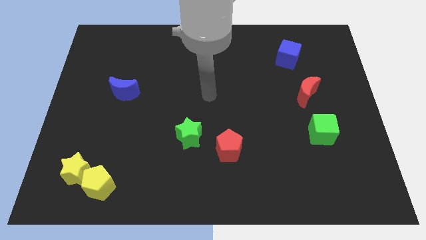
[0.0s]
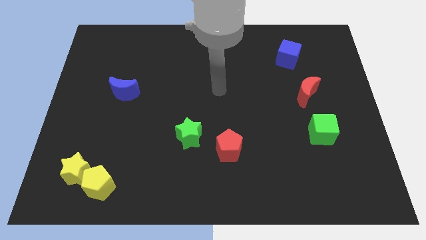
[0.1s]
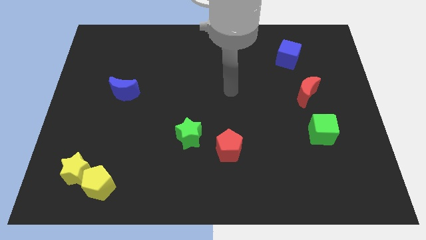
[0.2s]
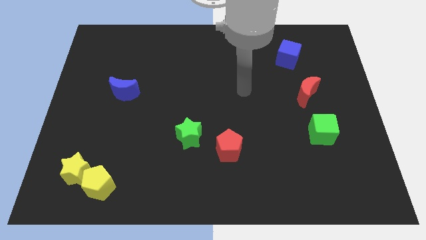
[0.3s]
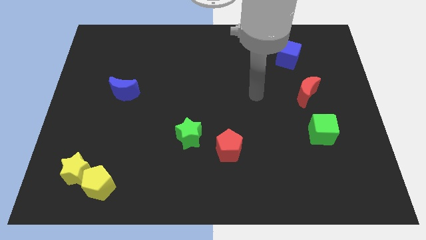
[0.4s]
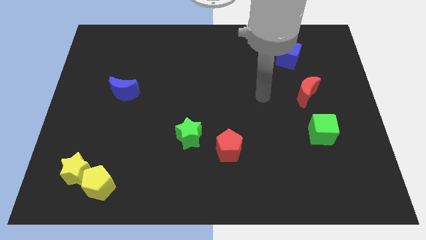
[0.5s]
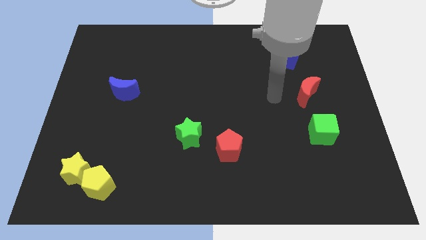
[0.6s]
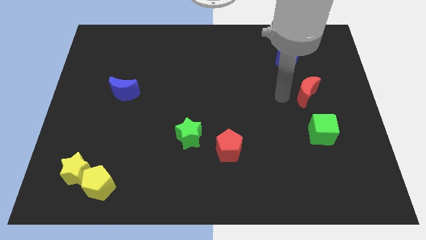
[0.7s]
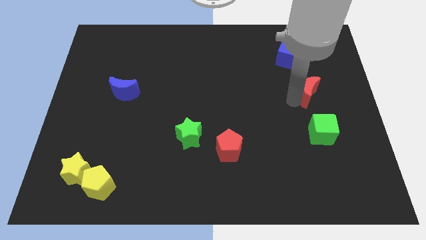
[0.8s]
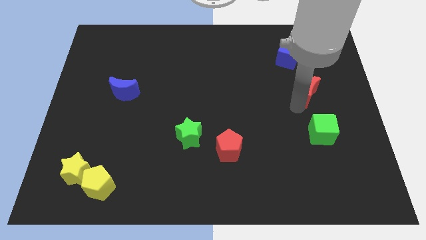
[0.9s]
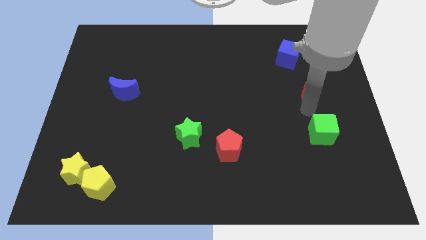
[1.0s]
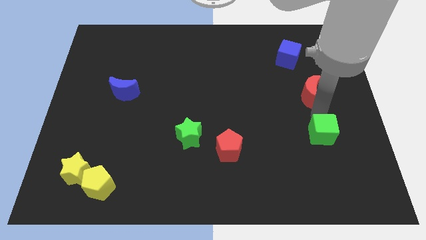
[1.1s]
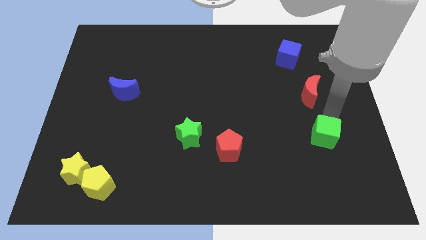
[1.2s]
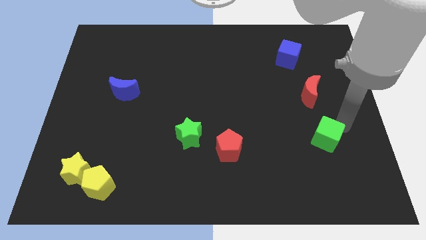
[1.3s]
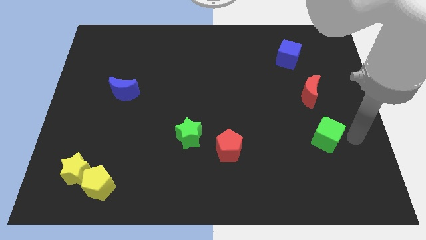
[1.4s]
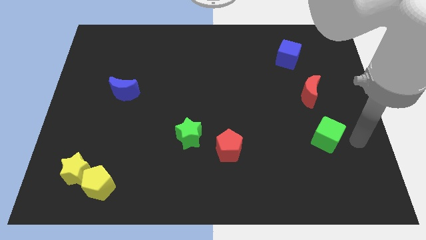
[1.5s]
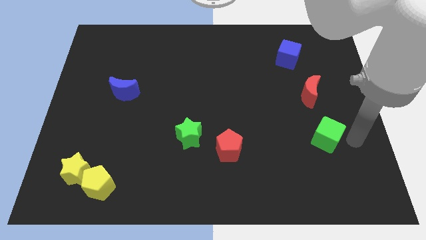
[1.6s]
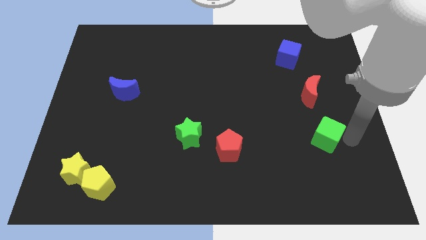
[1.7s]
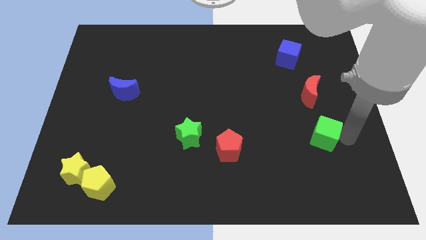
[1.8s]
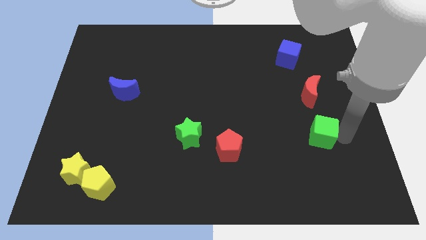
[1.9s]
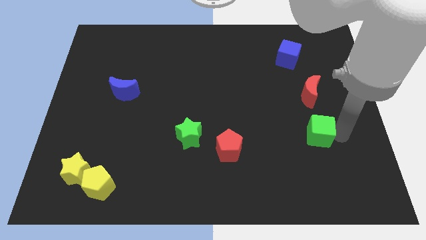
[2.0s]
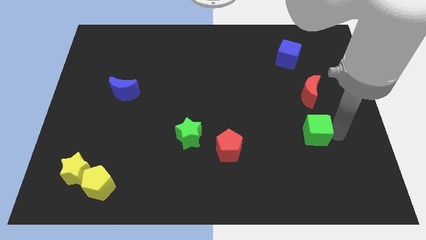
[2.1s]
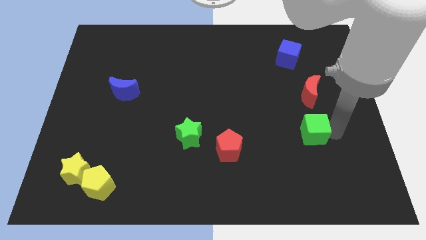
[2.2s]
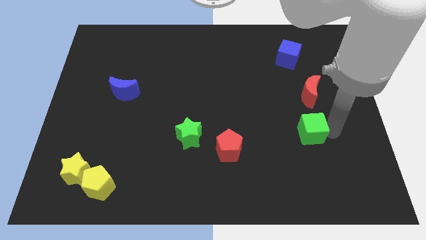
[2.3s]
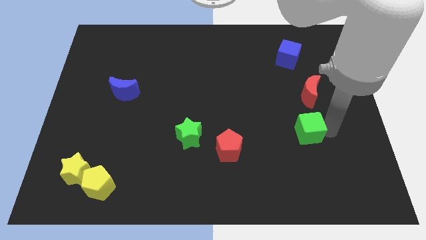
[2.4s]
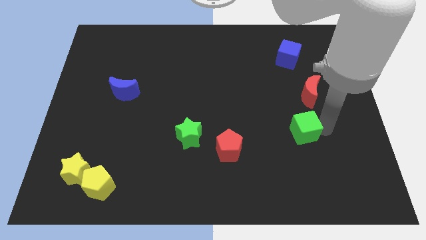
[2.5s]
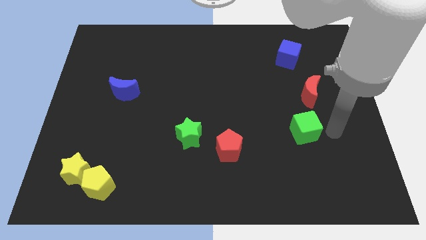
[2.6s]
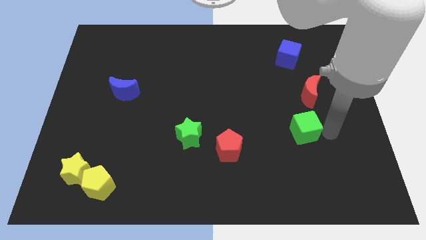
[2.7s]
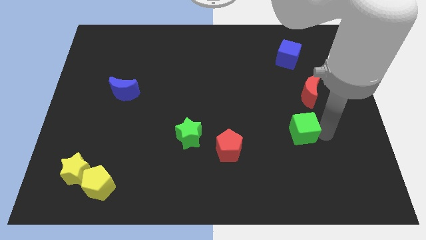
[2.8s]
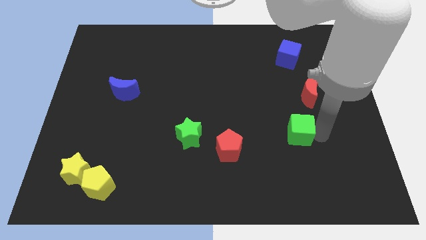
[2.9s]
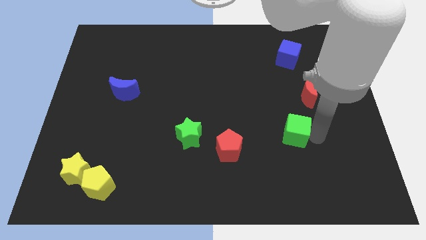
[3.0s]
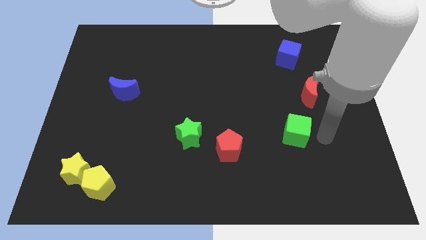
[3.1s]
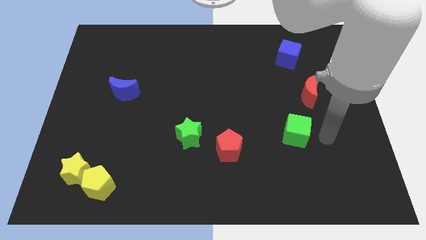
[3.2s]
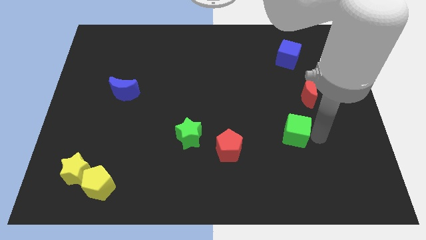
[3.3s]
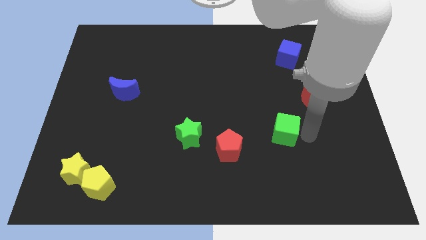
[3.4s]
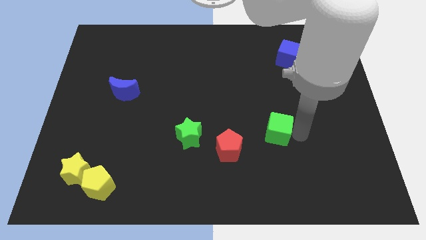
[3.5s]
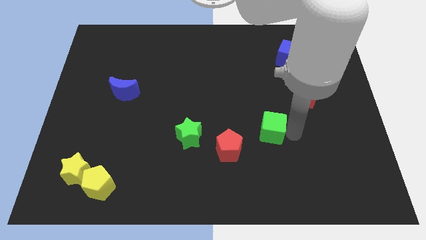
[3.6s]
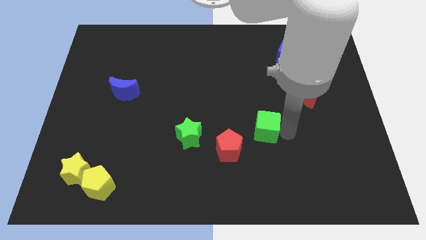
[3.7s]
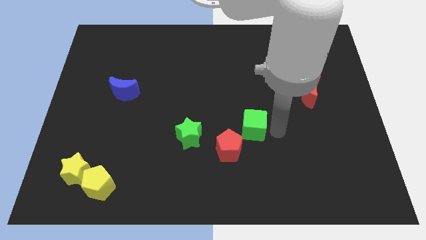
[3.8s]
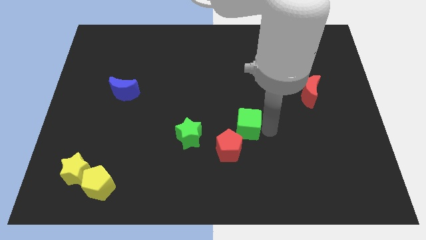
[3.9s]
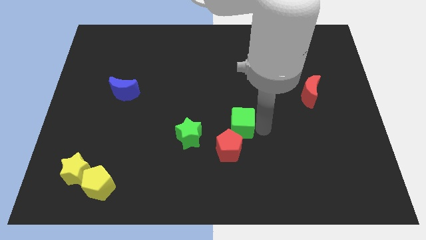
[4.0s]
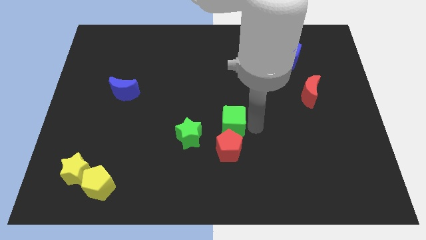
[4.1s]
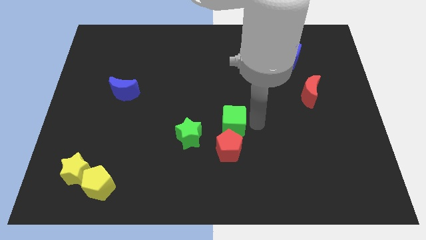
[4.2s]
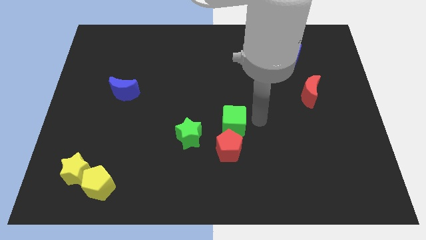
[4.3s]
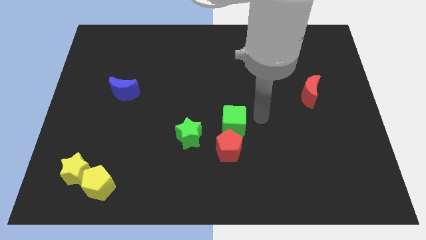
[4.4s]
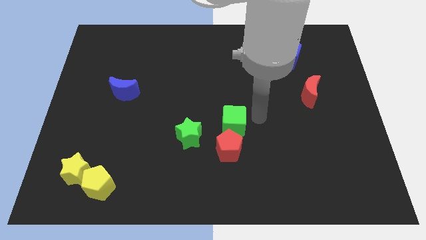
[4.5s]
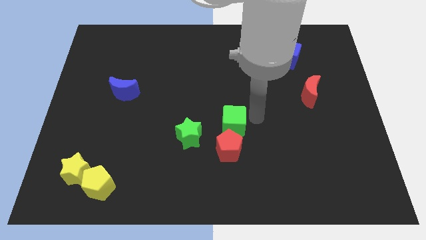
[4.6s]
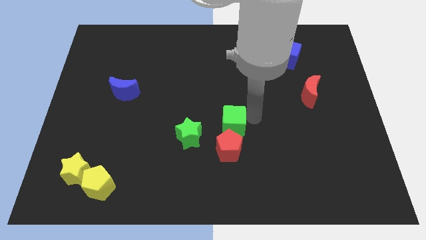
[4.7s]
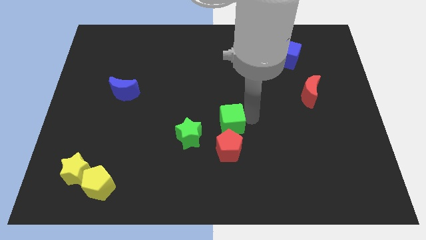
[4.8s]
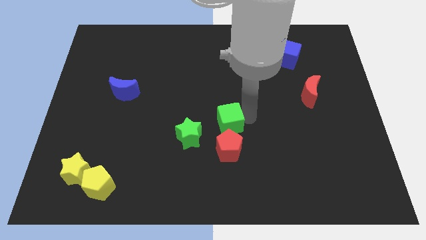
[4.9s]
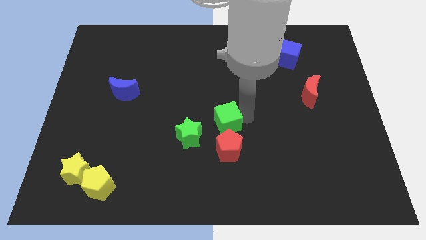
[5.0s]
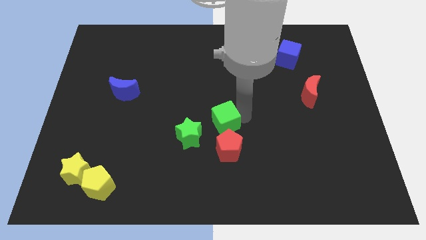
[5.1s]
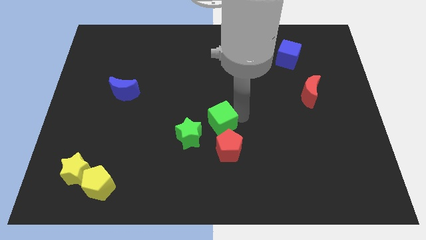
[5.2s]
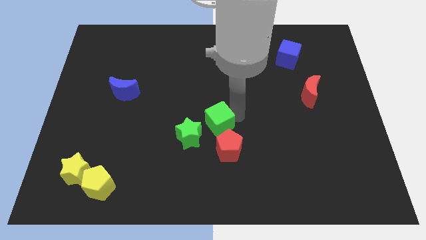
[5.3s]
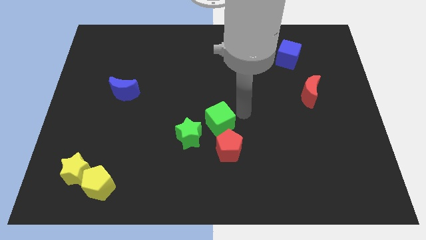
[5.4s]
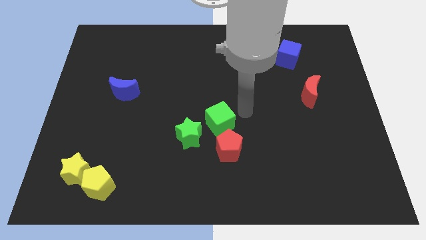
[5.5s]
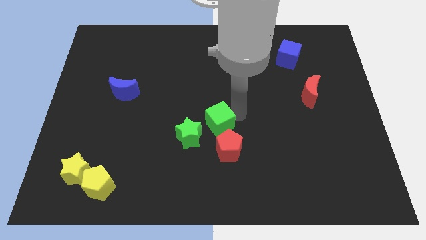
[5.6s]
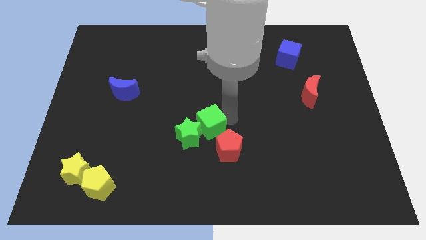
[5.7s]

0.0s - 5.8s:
move the green cube towards the green star

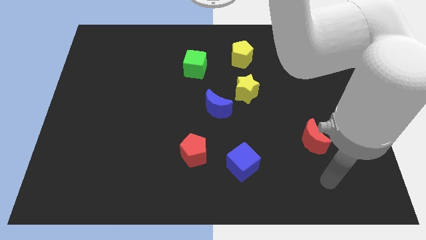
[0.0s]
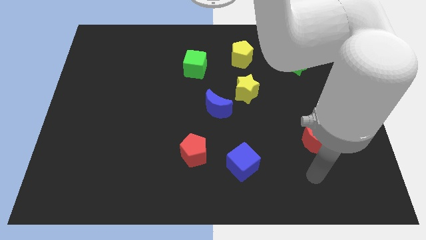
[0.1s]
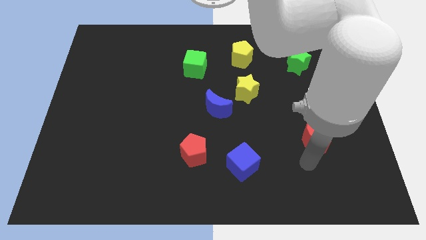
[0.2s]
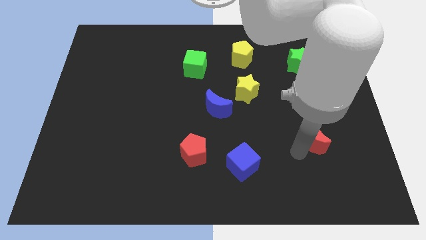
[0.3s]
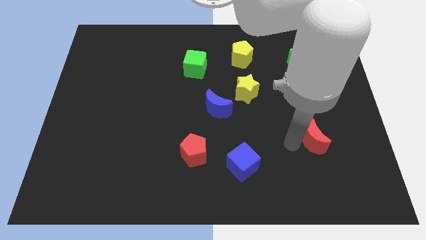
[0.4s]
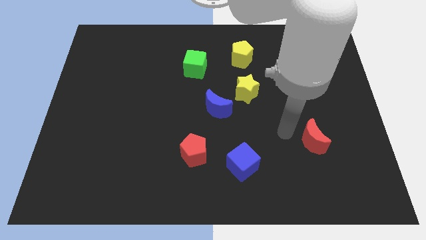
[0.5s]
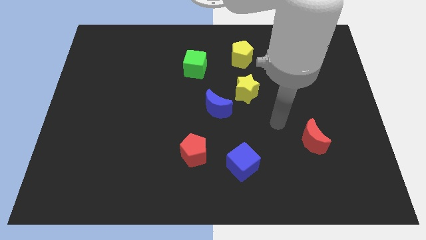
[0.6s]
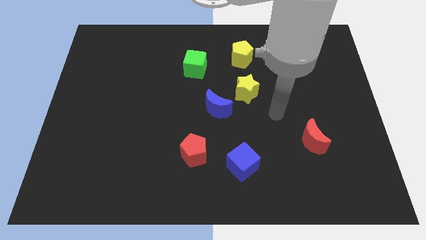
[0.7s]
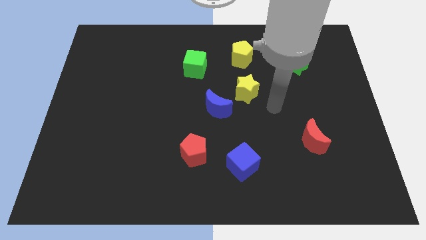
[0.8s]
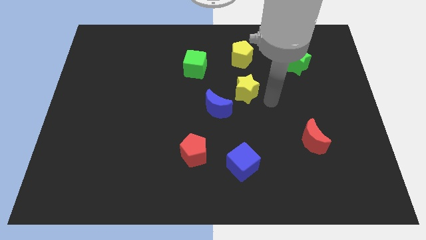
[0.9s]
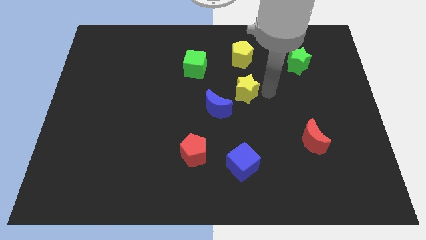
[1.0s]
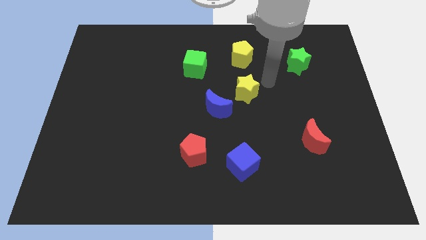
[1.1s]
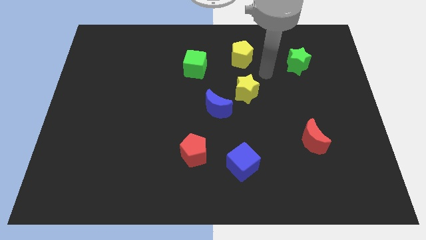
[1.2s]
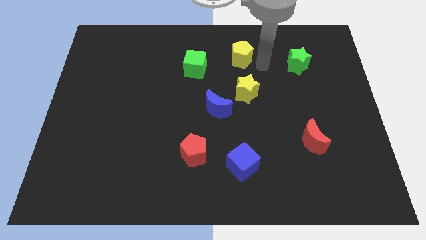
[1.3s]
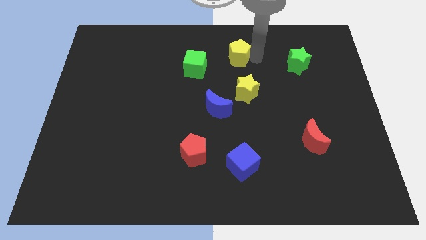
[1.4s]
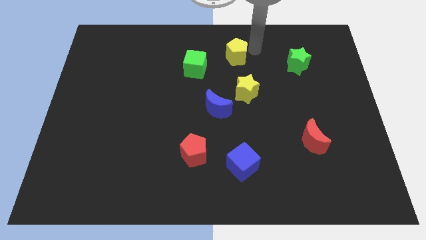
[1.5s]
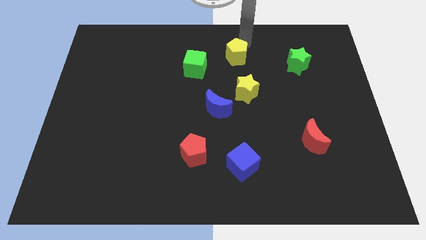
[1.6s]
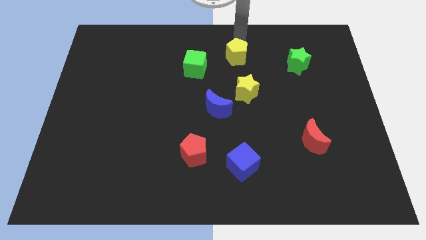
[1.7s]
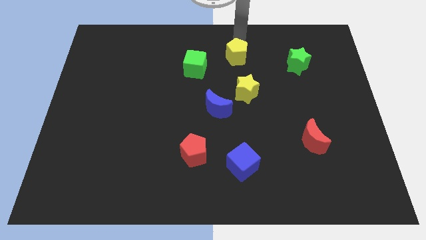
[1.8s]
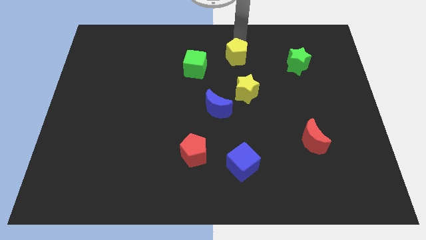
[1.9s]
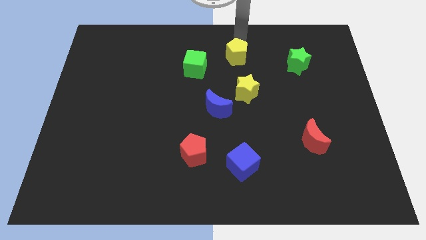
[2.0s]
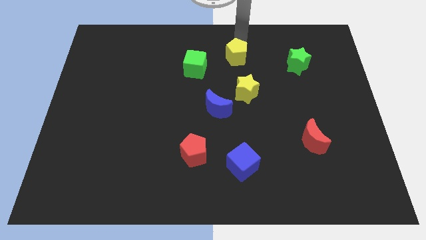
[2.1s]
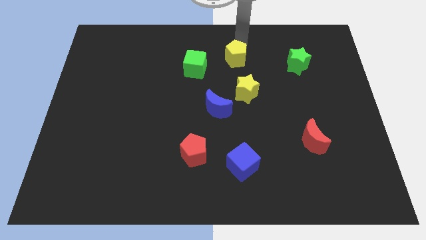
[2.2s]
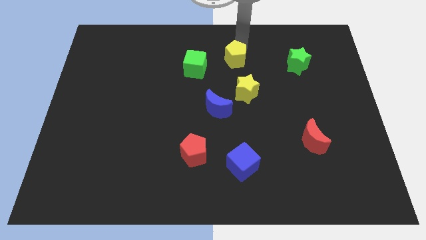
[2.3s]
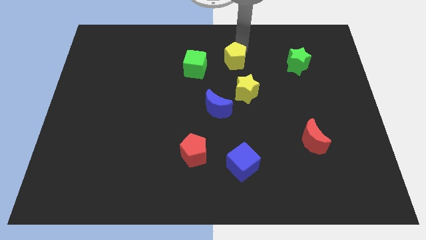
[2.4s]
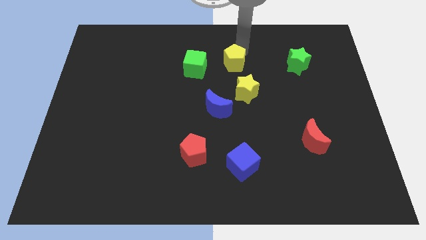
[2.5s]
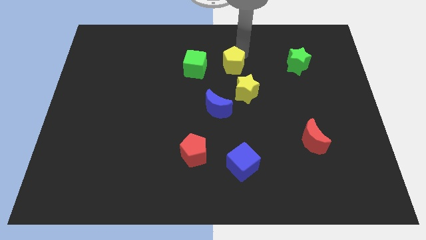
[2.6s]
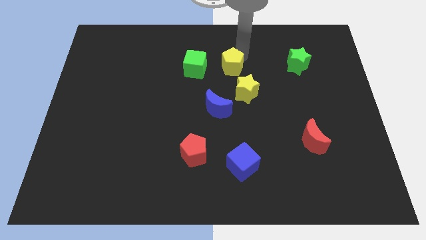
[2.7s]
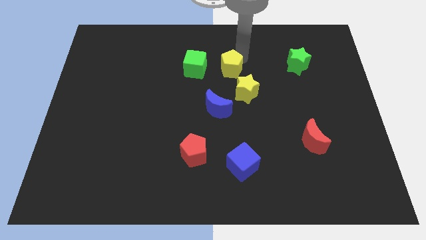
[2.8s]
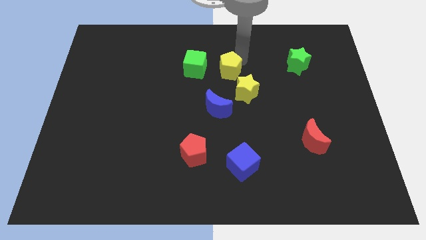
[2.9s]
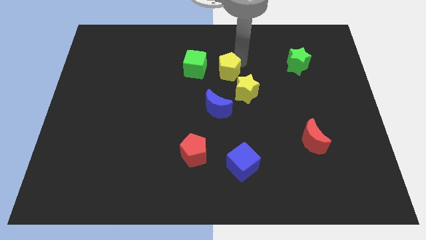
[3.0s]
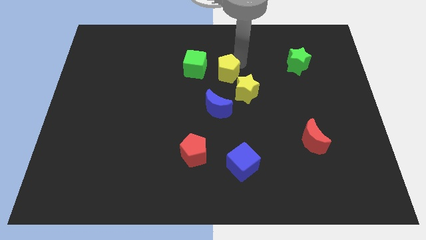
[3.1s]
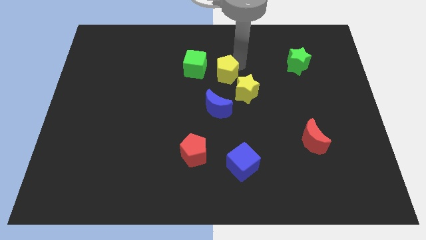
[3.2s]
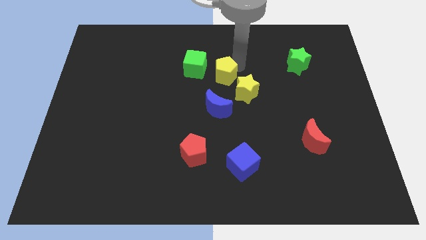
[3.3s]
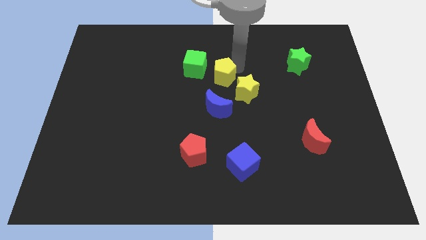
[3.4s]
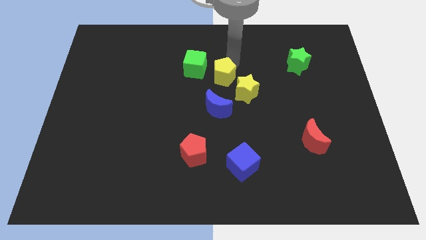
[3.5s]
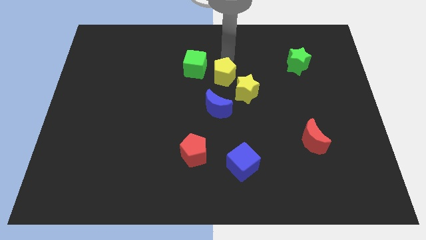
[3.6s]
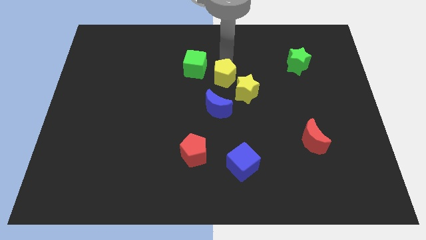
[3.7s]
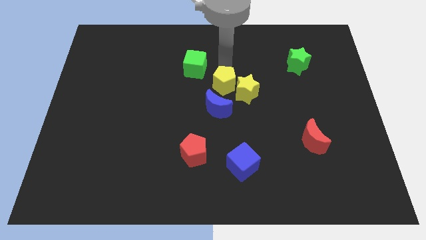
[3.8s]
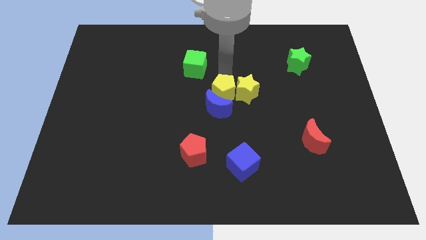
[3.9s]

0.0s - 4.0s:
move the yellow pentagon next to the blue moon
